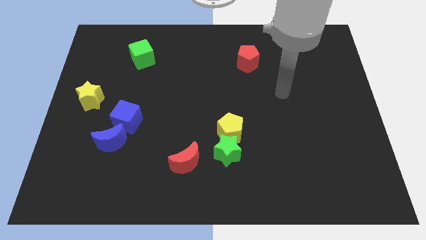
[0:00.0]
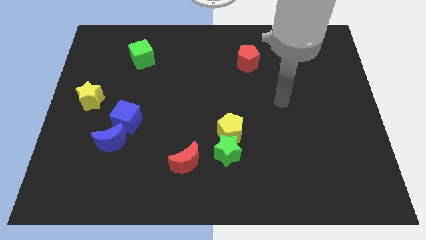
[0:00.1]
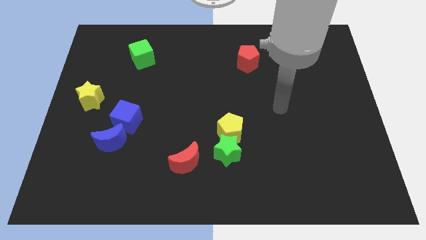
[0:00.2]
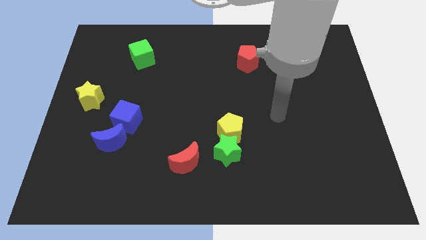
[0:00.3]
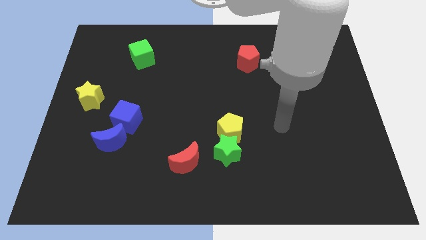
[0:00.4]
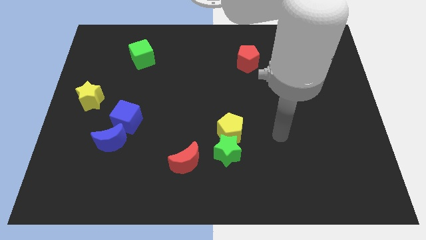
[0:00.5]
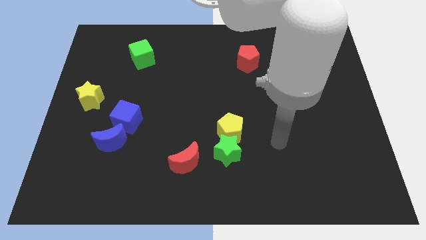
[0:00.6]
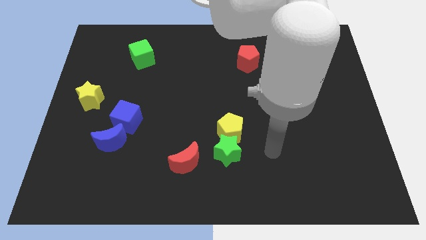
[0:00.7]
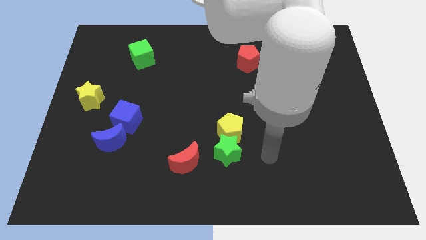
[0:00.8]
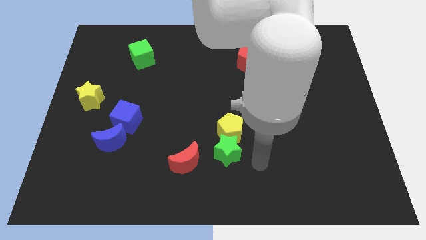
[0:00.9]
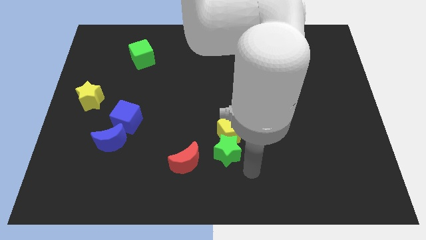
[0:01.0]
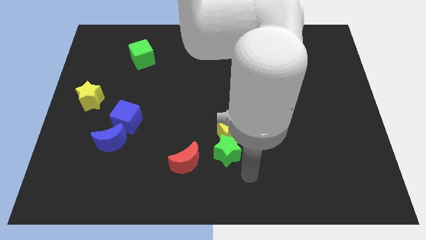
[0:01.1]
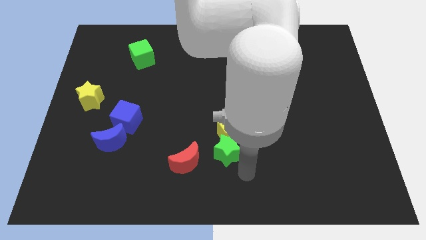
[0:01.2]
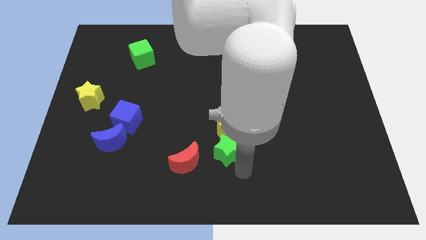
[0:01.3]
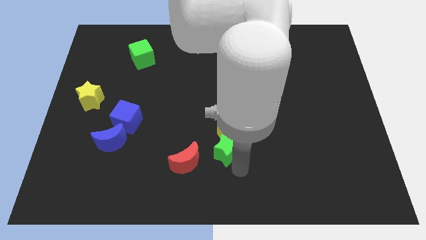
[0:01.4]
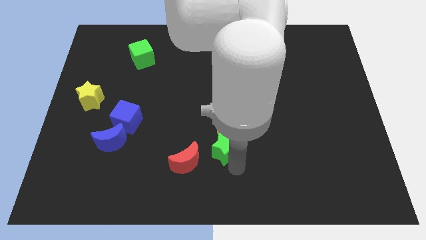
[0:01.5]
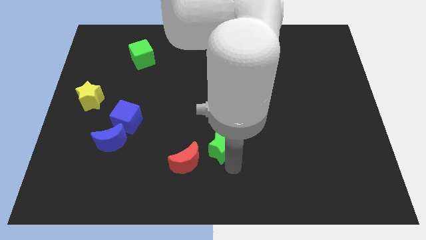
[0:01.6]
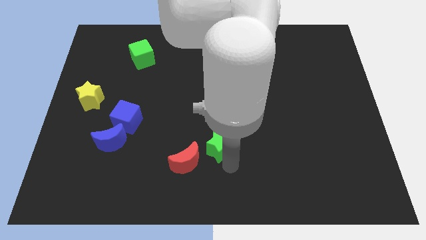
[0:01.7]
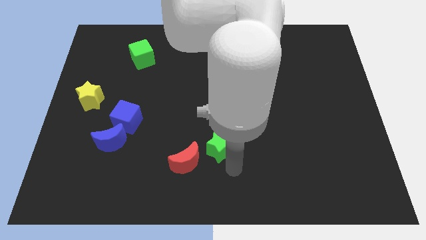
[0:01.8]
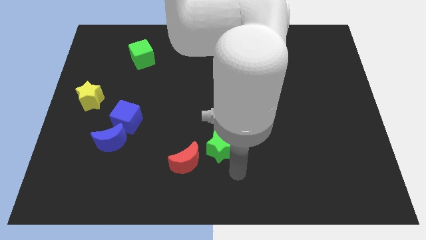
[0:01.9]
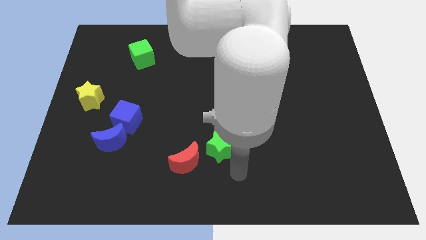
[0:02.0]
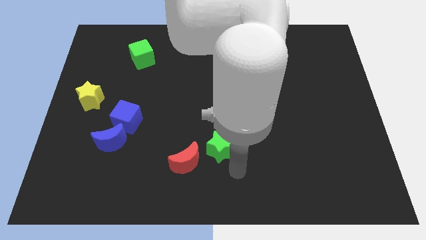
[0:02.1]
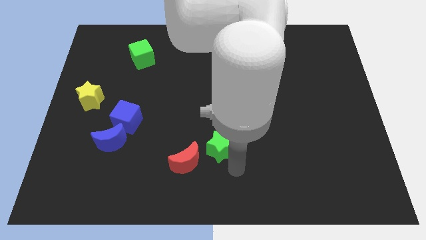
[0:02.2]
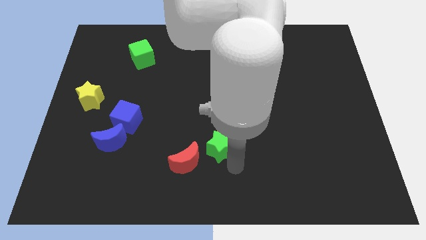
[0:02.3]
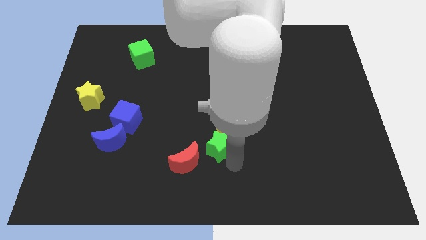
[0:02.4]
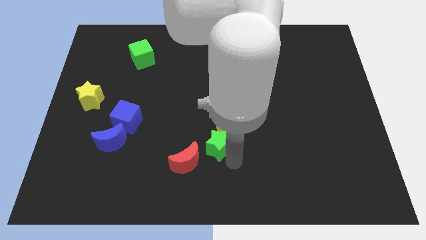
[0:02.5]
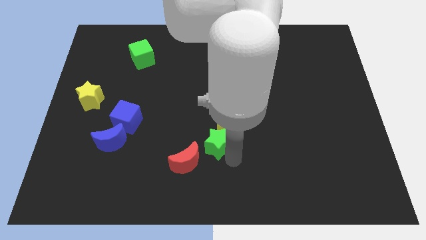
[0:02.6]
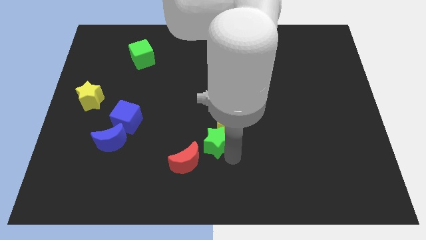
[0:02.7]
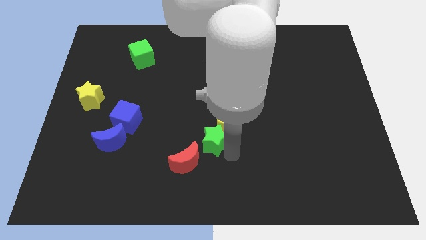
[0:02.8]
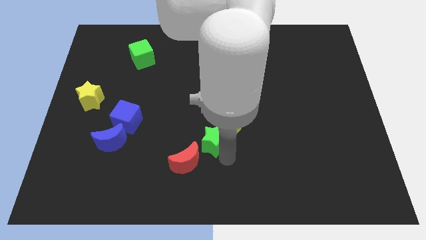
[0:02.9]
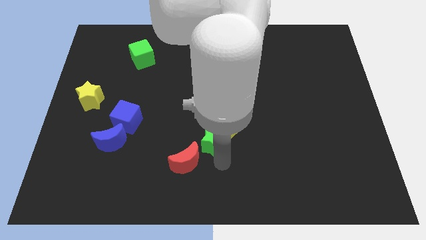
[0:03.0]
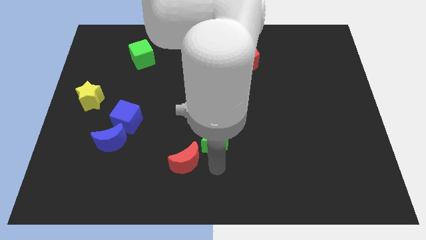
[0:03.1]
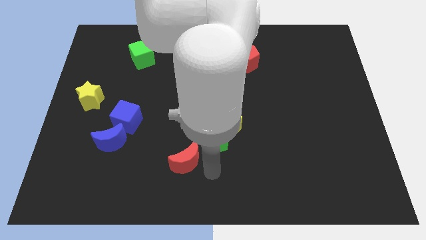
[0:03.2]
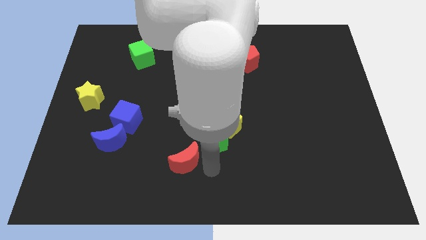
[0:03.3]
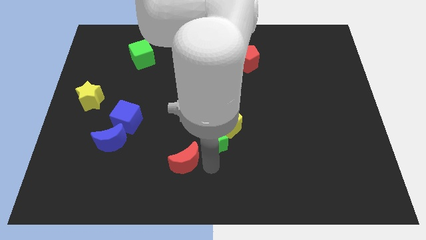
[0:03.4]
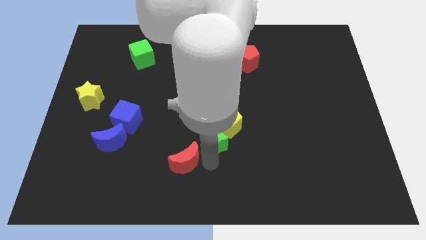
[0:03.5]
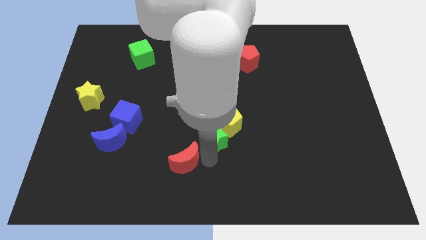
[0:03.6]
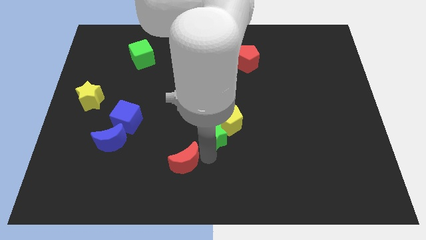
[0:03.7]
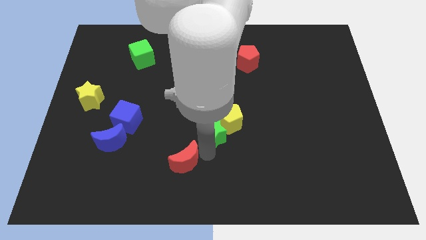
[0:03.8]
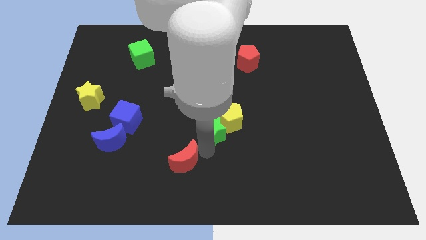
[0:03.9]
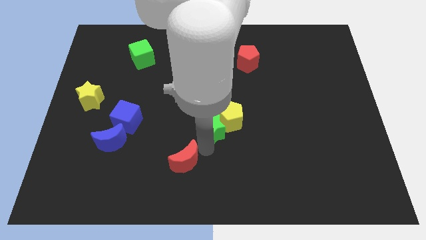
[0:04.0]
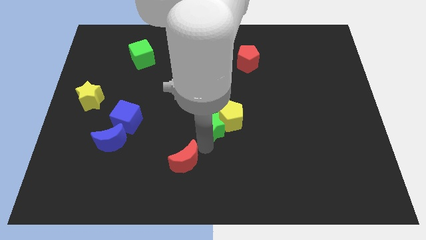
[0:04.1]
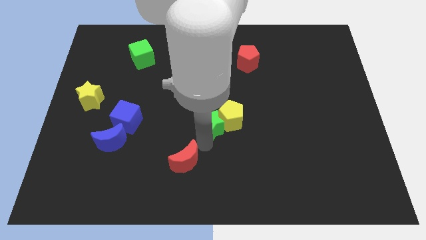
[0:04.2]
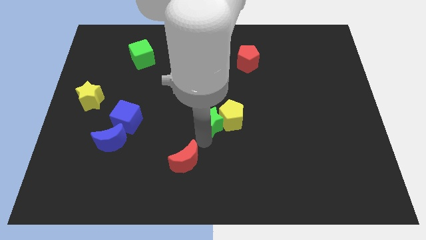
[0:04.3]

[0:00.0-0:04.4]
push the green star a little bit upwards

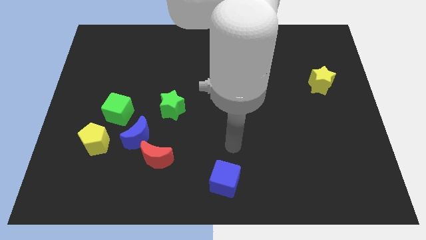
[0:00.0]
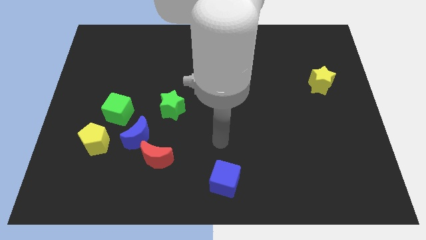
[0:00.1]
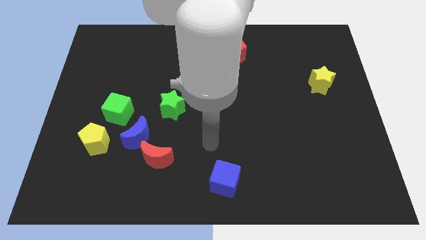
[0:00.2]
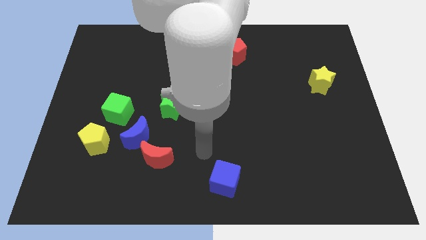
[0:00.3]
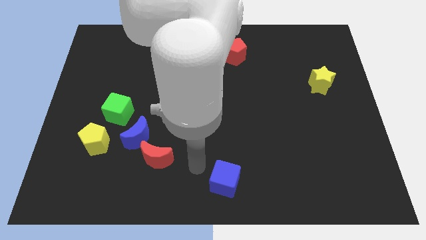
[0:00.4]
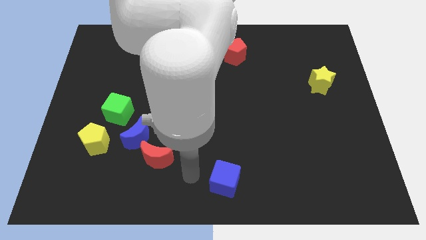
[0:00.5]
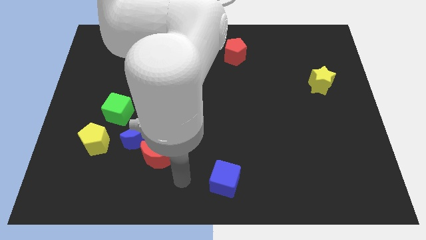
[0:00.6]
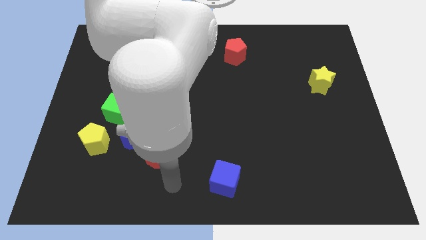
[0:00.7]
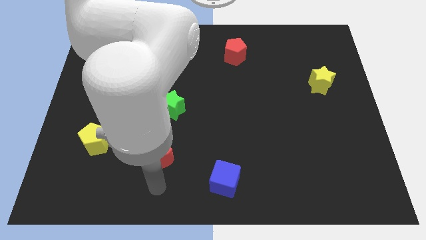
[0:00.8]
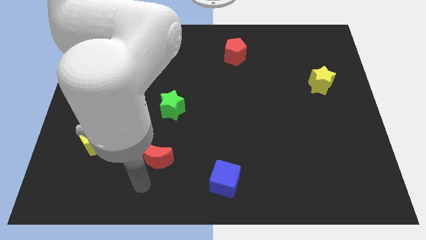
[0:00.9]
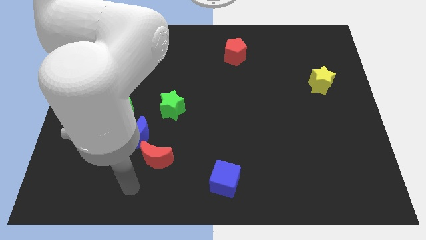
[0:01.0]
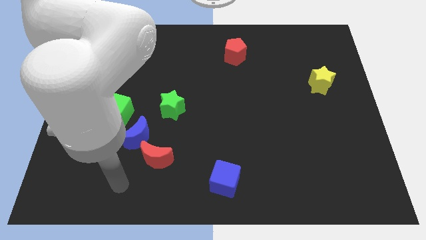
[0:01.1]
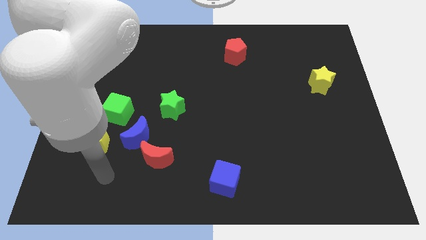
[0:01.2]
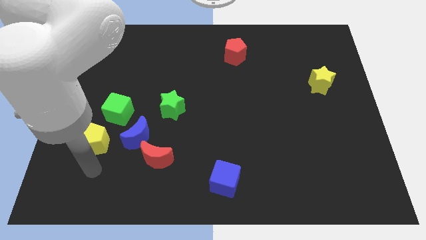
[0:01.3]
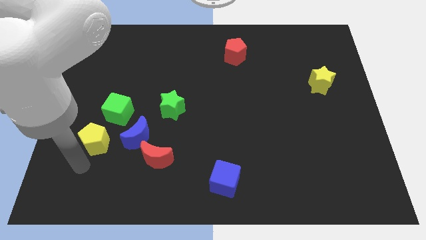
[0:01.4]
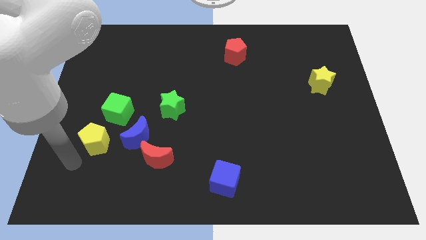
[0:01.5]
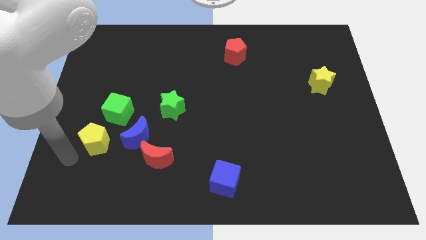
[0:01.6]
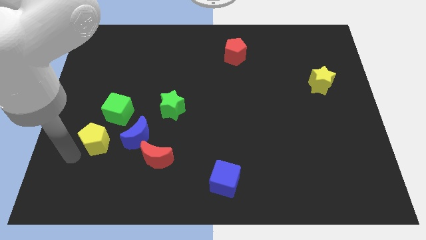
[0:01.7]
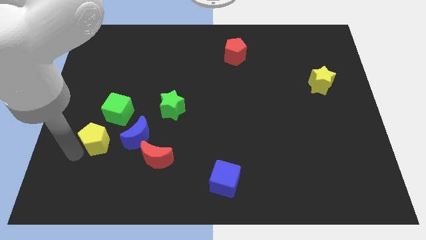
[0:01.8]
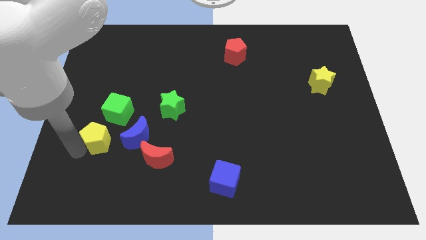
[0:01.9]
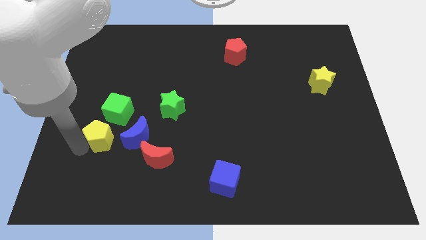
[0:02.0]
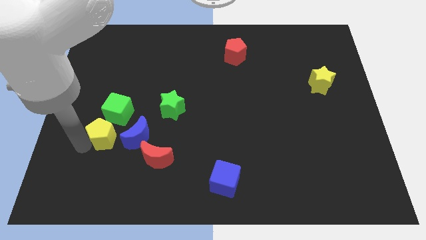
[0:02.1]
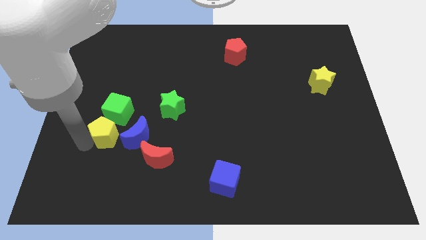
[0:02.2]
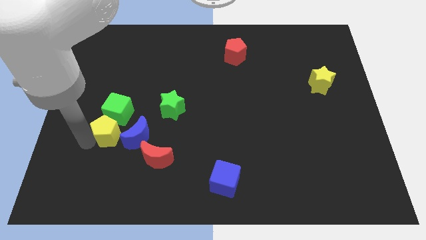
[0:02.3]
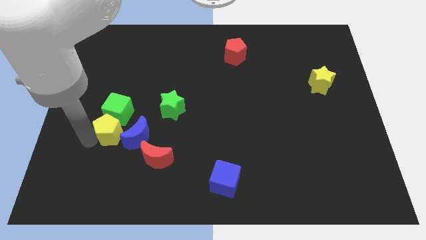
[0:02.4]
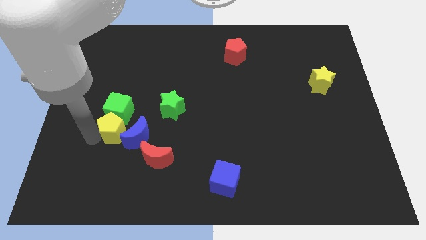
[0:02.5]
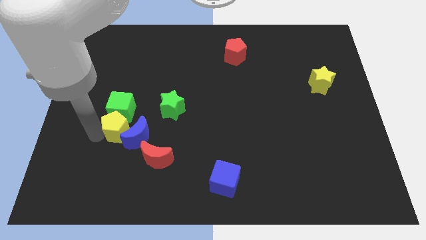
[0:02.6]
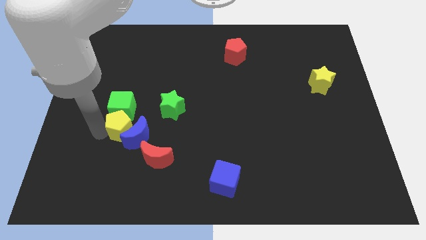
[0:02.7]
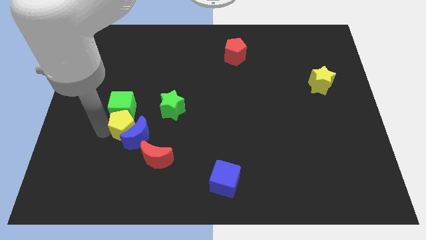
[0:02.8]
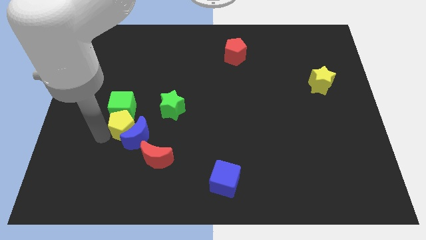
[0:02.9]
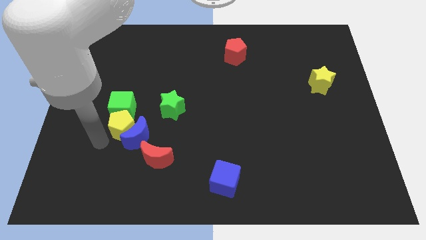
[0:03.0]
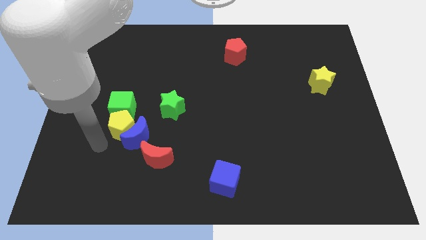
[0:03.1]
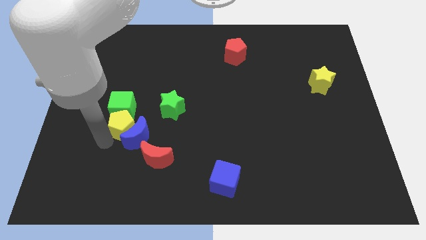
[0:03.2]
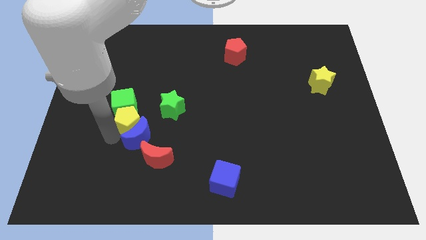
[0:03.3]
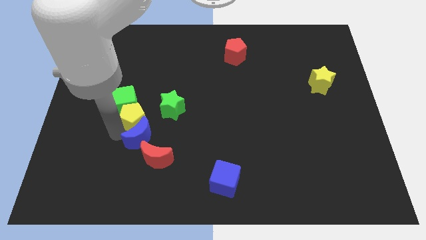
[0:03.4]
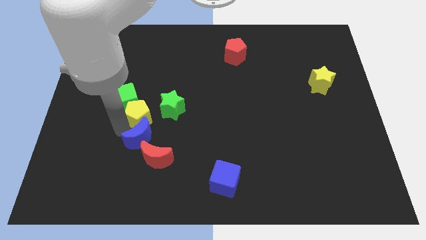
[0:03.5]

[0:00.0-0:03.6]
slightly slide the yellow pentagon to the right

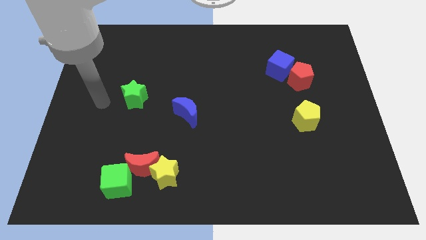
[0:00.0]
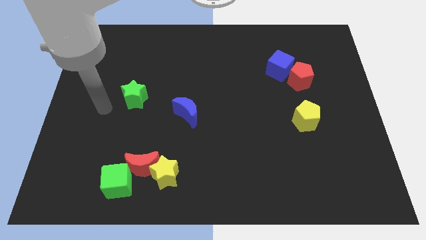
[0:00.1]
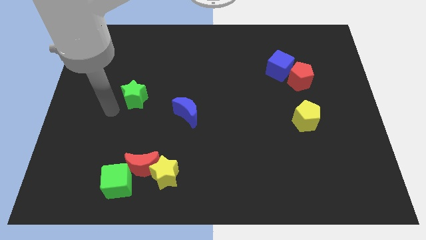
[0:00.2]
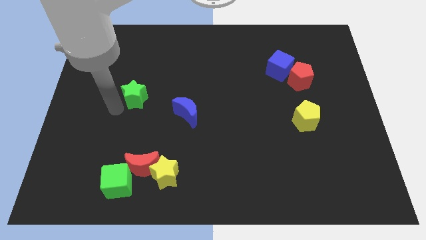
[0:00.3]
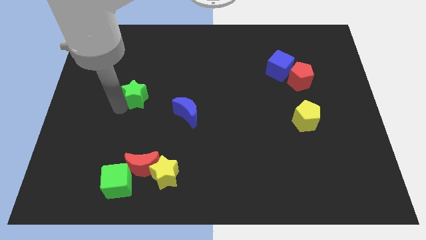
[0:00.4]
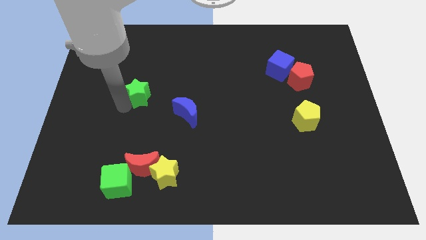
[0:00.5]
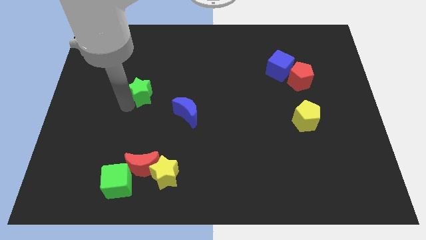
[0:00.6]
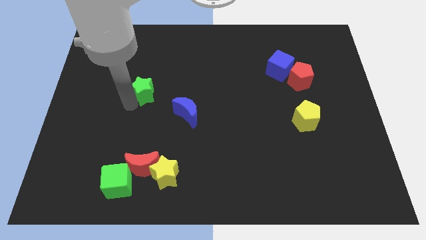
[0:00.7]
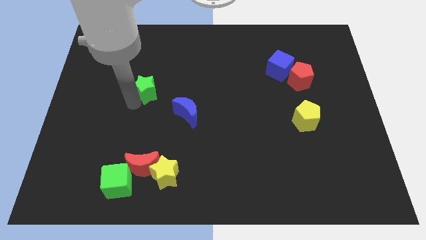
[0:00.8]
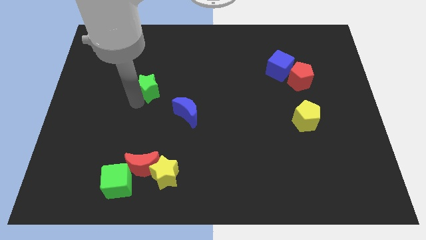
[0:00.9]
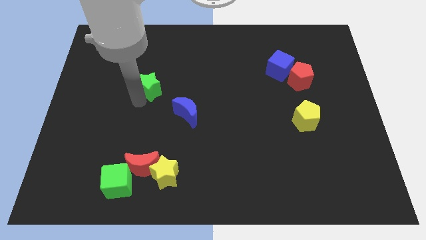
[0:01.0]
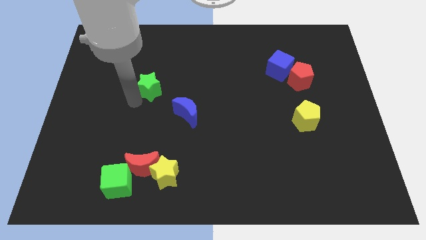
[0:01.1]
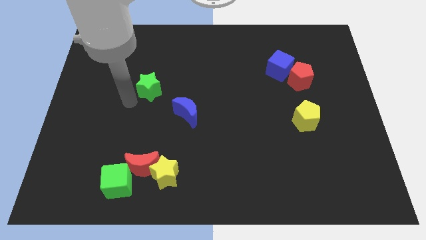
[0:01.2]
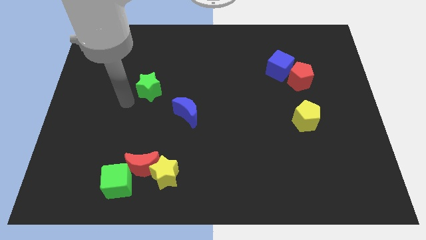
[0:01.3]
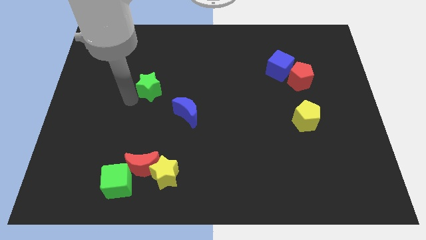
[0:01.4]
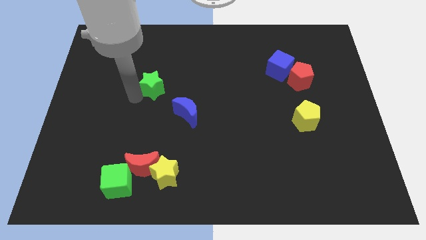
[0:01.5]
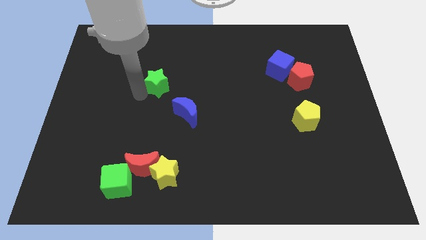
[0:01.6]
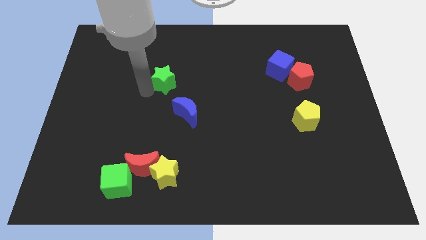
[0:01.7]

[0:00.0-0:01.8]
slide the green star somewhat diagonally up and right
